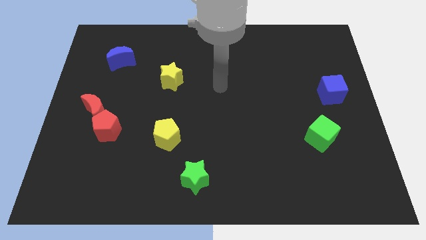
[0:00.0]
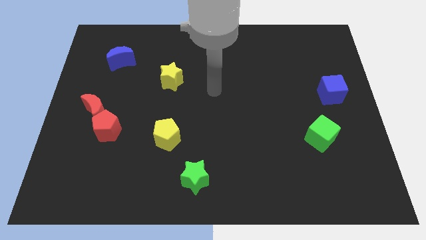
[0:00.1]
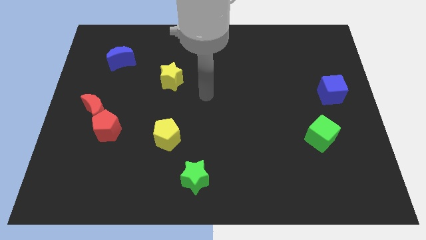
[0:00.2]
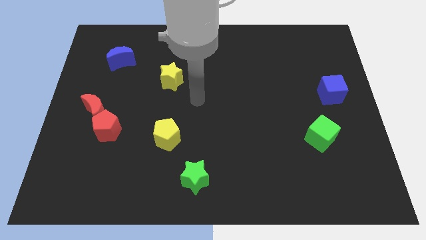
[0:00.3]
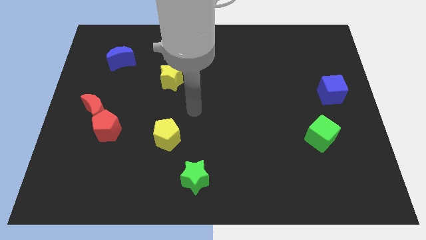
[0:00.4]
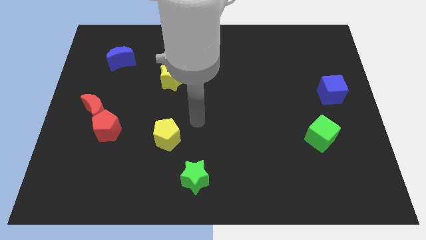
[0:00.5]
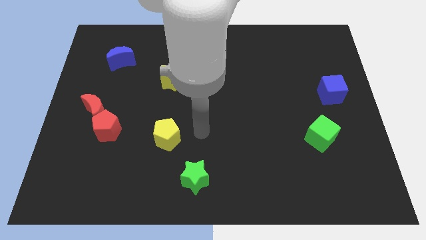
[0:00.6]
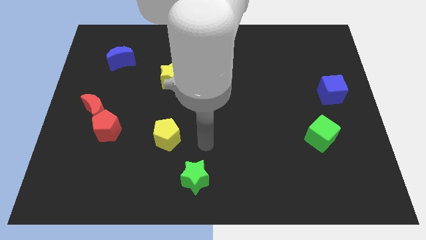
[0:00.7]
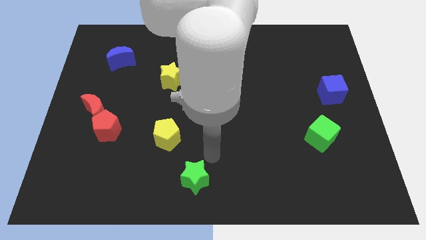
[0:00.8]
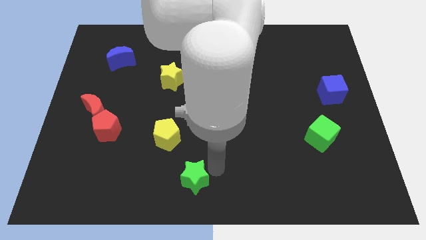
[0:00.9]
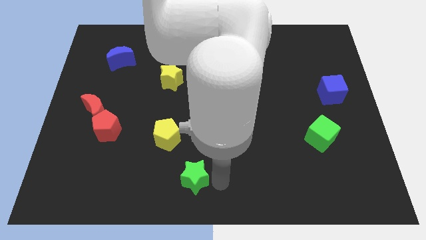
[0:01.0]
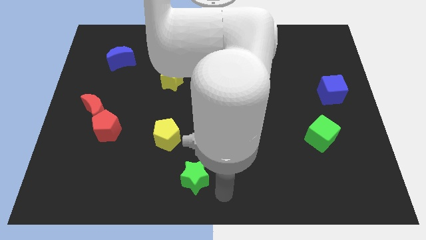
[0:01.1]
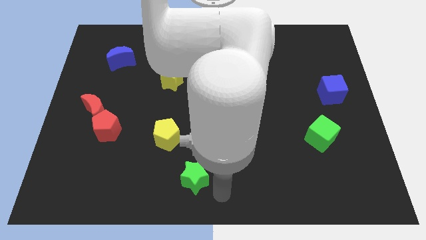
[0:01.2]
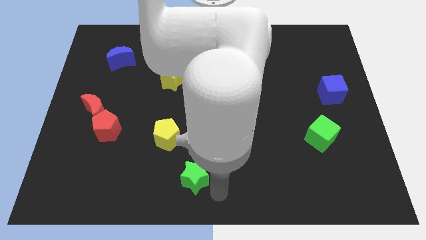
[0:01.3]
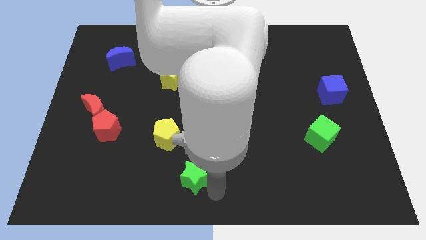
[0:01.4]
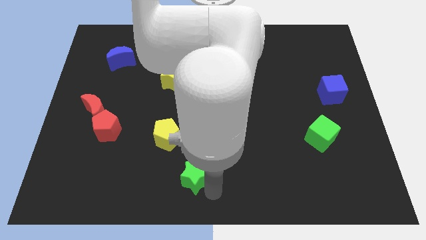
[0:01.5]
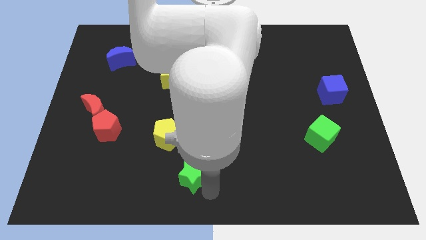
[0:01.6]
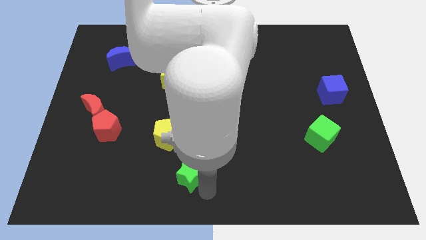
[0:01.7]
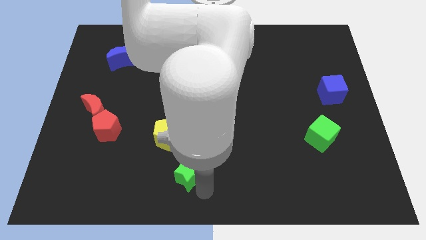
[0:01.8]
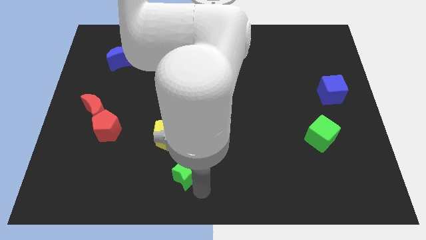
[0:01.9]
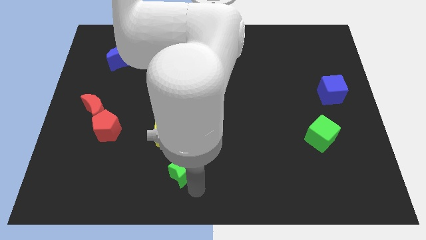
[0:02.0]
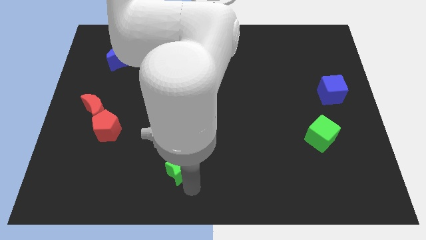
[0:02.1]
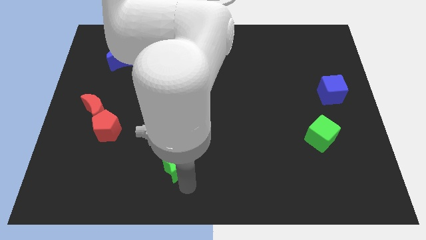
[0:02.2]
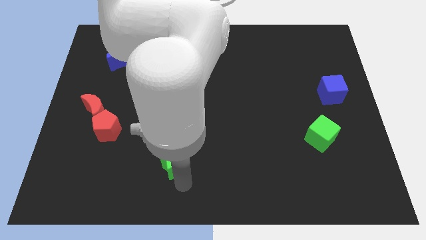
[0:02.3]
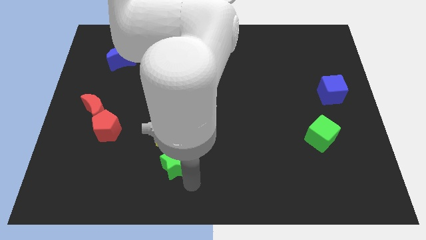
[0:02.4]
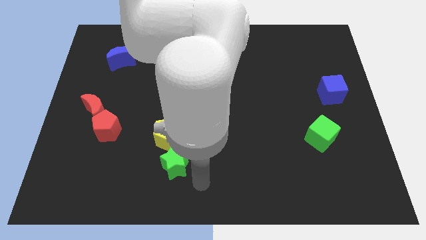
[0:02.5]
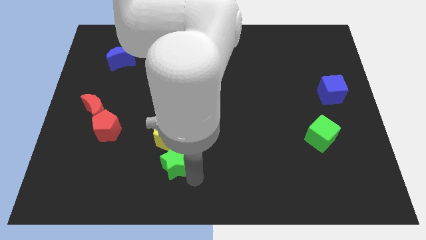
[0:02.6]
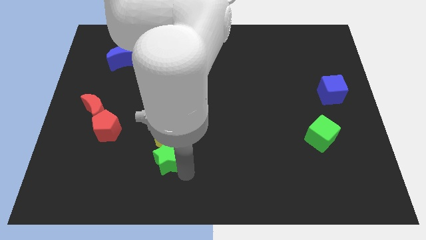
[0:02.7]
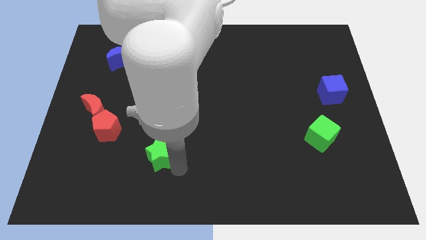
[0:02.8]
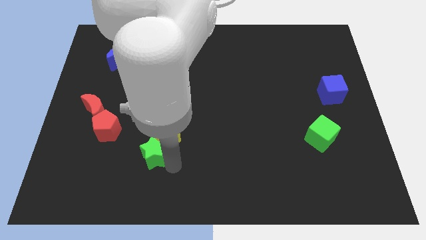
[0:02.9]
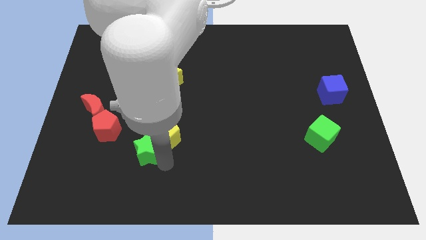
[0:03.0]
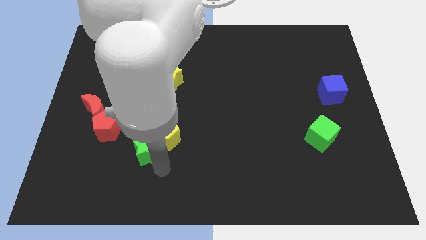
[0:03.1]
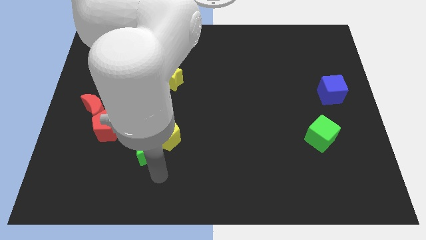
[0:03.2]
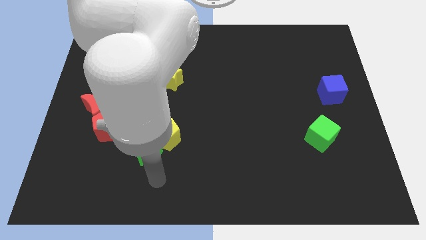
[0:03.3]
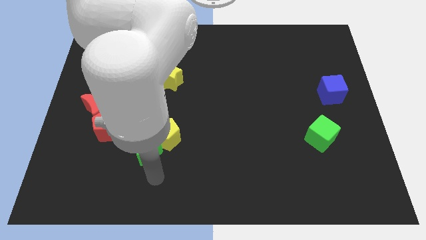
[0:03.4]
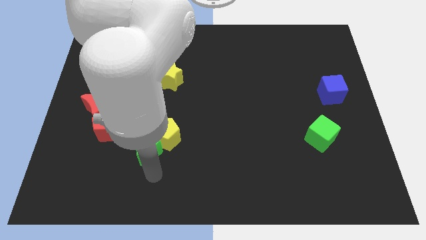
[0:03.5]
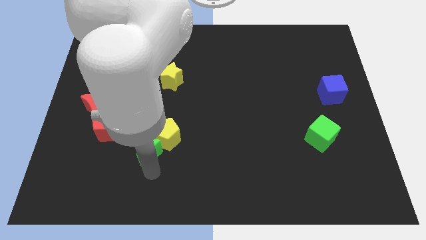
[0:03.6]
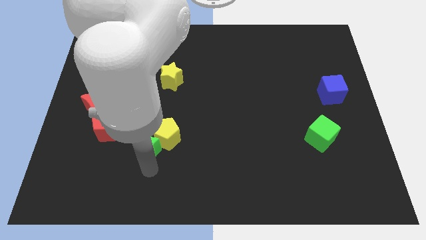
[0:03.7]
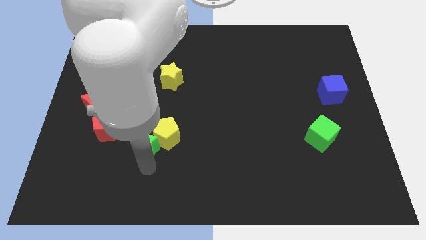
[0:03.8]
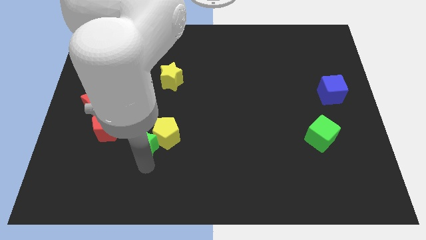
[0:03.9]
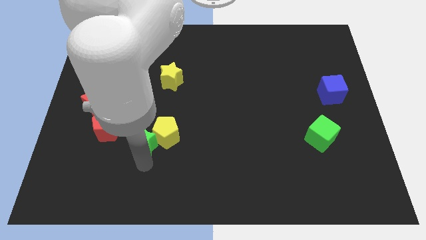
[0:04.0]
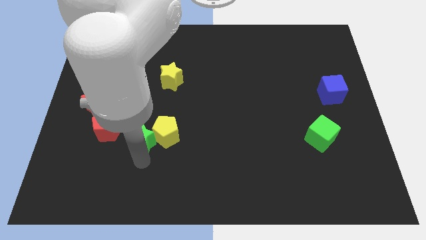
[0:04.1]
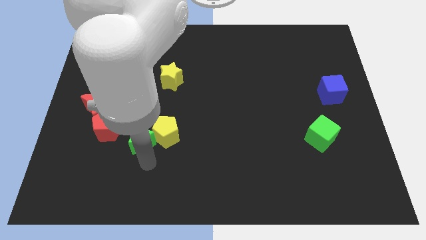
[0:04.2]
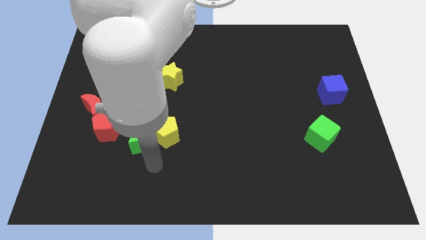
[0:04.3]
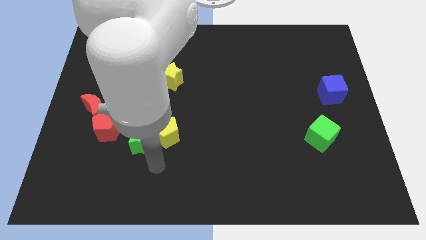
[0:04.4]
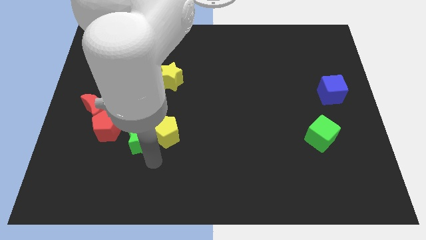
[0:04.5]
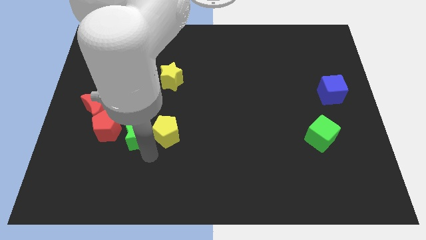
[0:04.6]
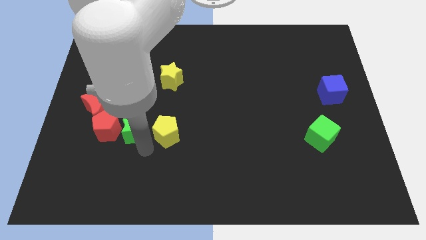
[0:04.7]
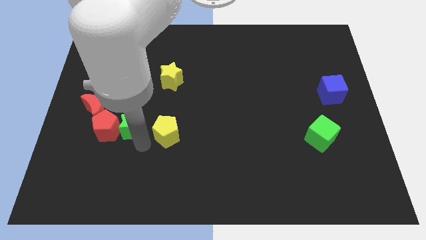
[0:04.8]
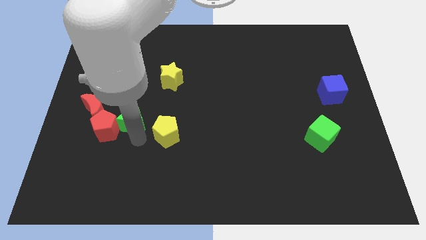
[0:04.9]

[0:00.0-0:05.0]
move the green star up and left

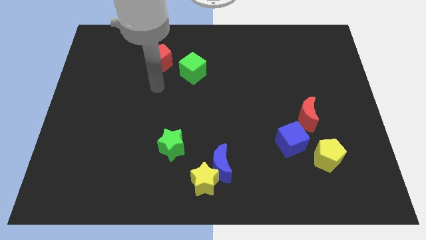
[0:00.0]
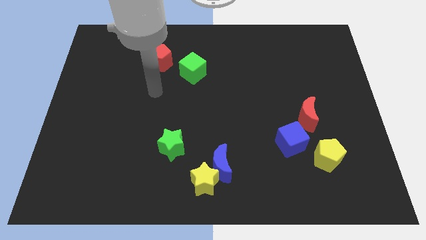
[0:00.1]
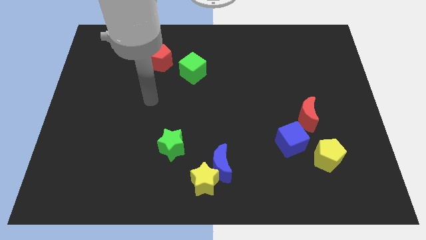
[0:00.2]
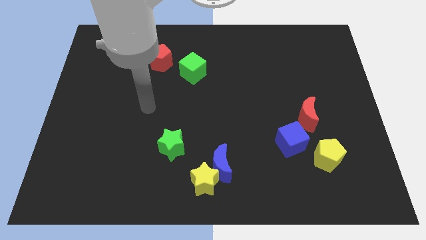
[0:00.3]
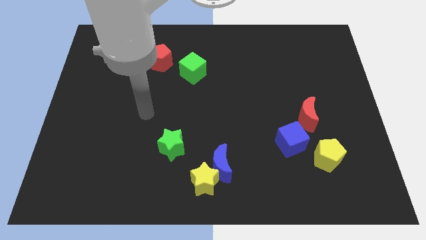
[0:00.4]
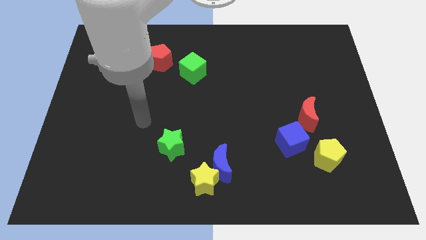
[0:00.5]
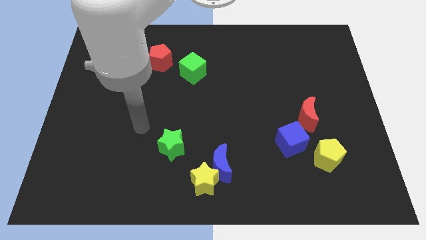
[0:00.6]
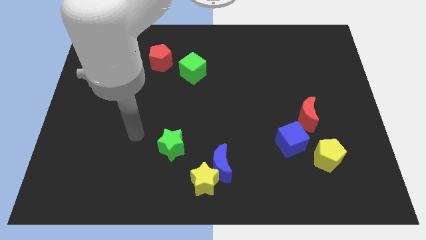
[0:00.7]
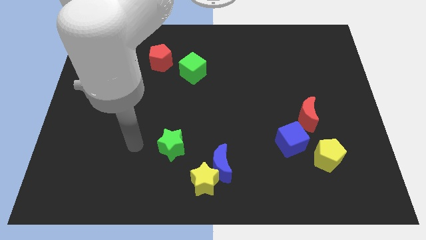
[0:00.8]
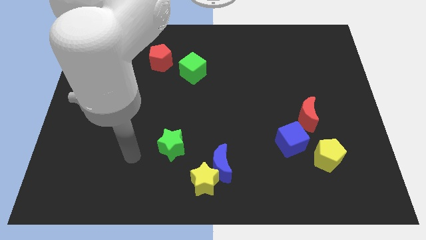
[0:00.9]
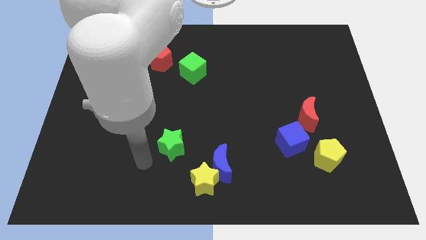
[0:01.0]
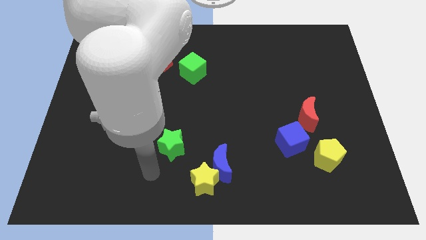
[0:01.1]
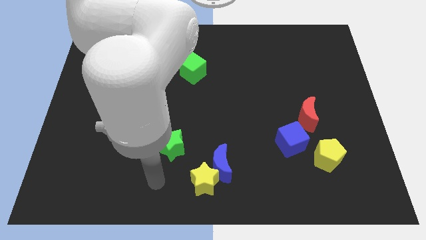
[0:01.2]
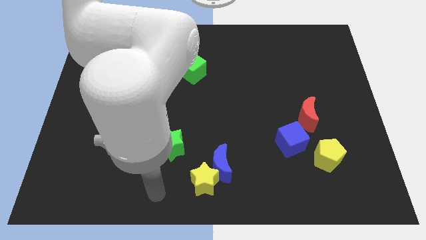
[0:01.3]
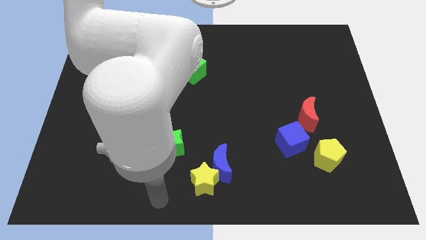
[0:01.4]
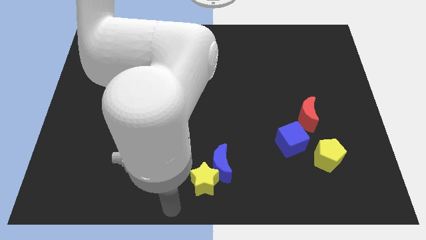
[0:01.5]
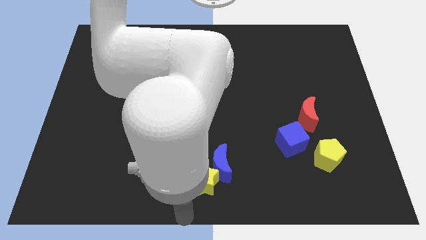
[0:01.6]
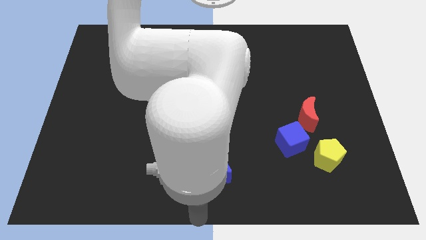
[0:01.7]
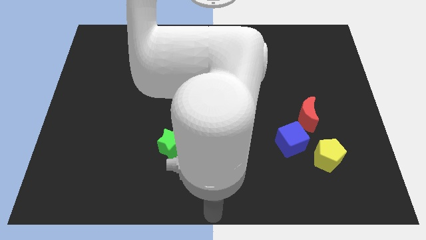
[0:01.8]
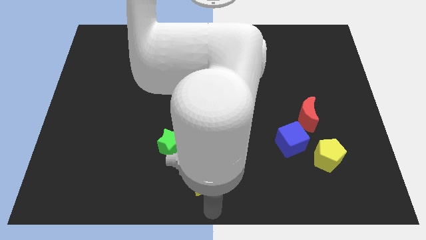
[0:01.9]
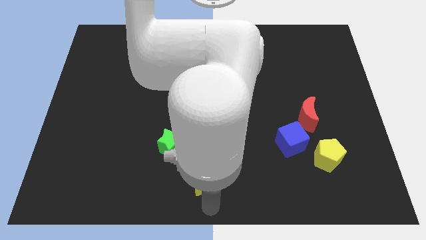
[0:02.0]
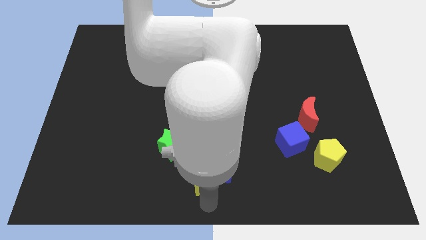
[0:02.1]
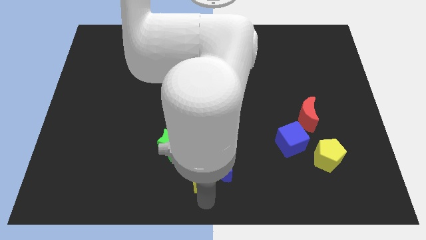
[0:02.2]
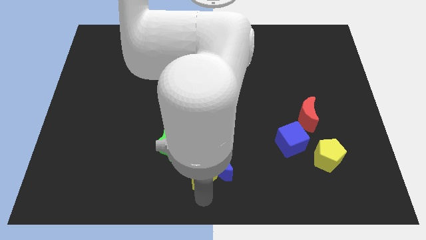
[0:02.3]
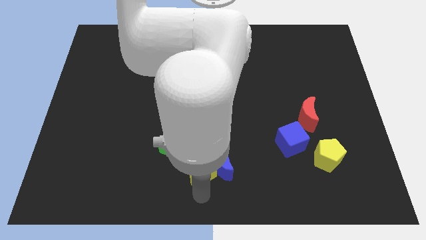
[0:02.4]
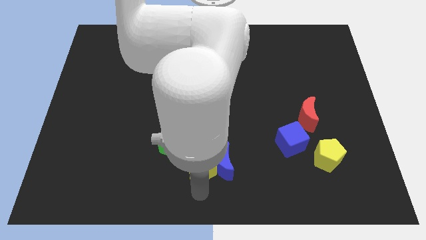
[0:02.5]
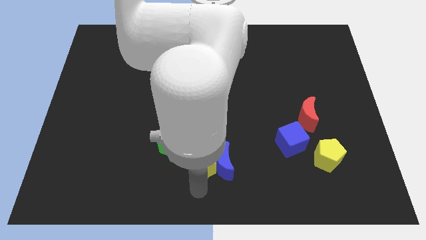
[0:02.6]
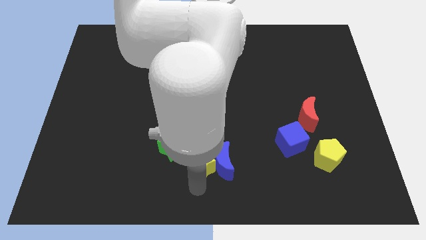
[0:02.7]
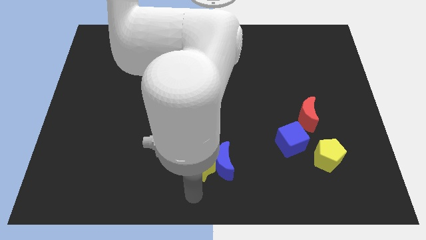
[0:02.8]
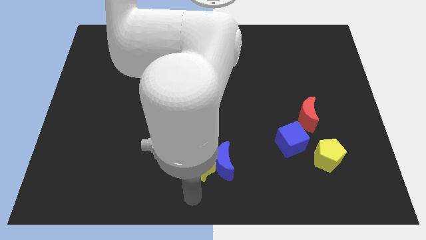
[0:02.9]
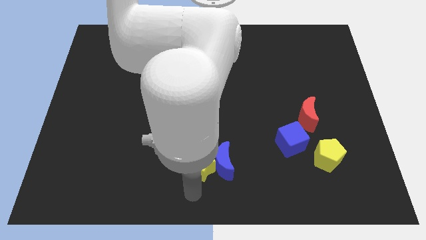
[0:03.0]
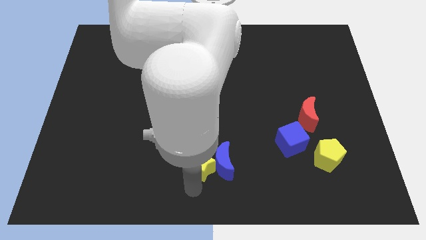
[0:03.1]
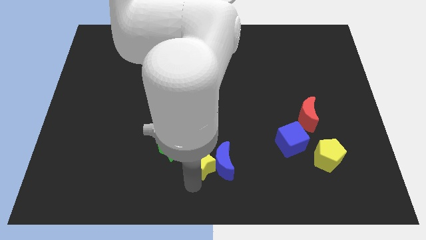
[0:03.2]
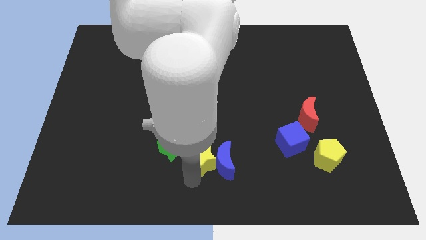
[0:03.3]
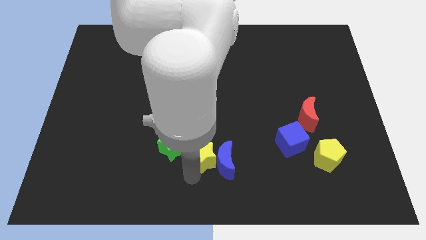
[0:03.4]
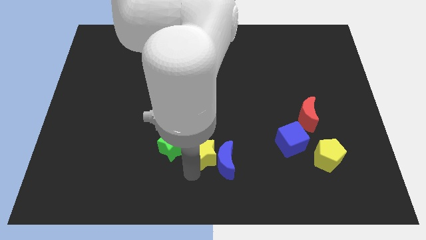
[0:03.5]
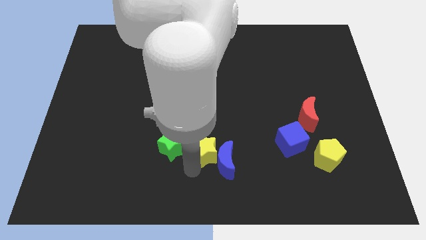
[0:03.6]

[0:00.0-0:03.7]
move the yellow star a little up
